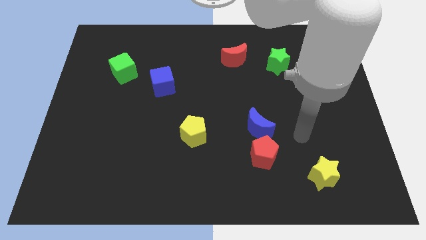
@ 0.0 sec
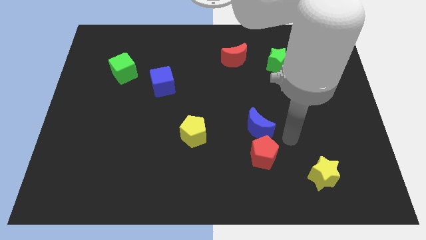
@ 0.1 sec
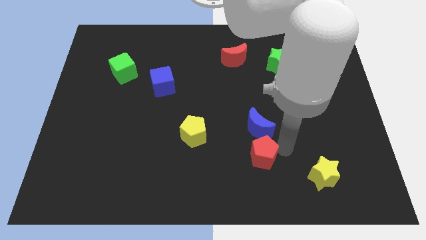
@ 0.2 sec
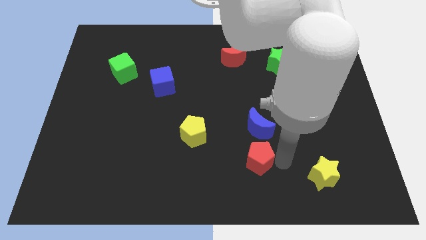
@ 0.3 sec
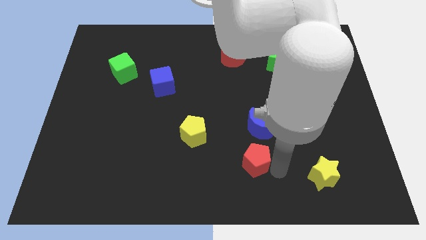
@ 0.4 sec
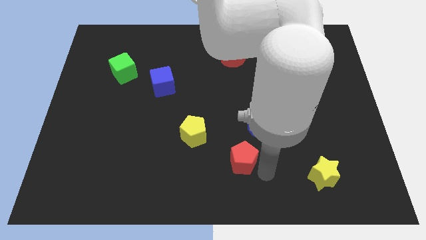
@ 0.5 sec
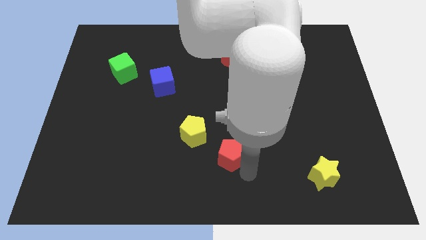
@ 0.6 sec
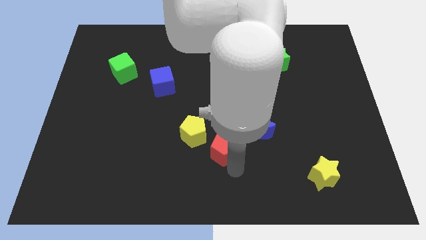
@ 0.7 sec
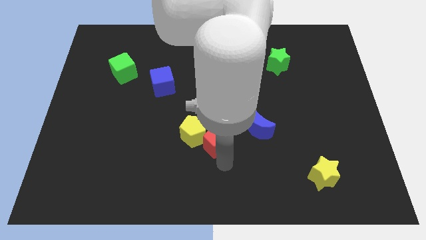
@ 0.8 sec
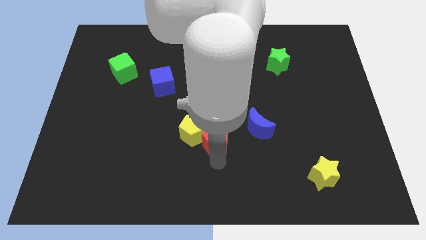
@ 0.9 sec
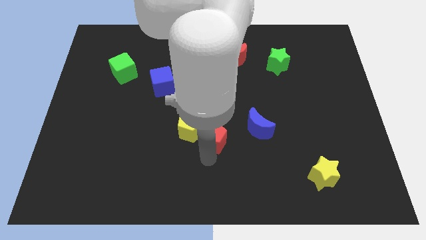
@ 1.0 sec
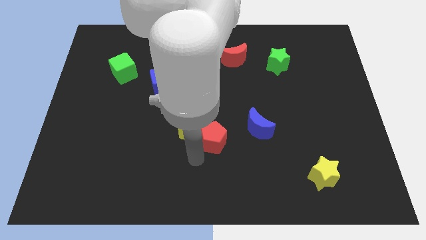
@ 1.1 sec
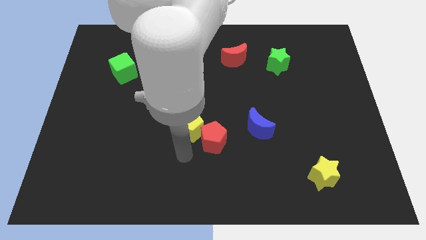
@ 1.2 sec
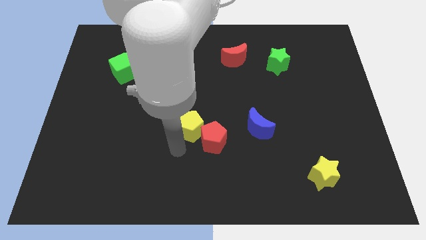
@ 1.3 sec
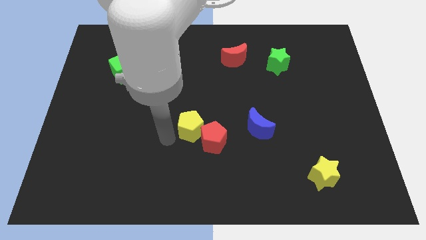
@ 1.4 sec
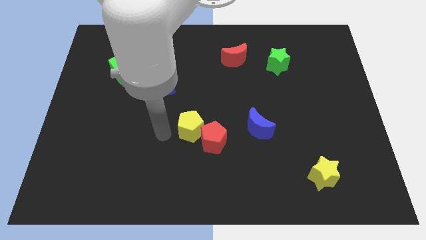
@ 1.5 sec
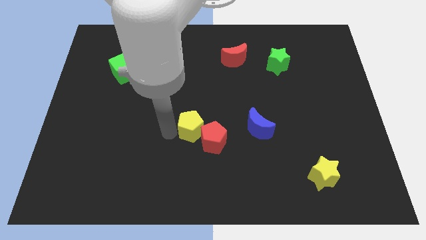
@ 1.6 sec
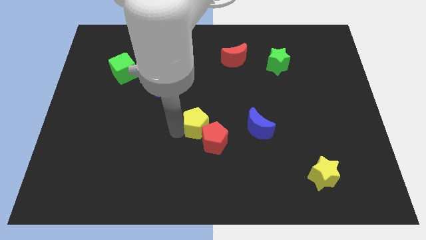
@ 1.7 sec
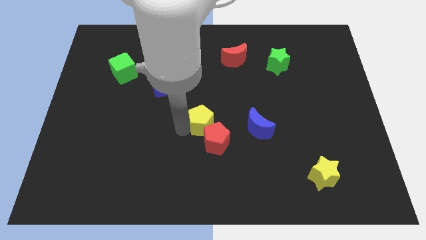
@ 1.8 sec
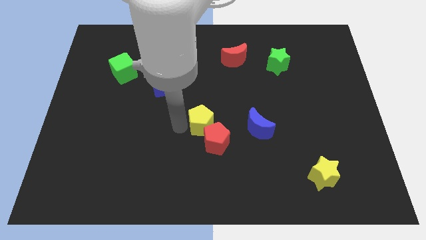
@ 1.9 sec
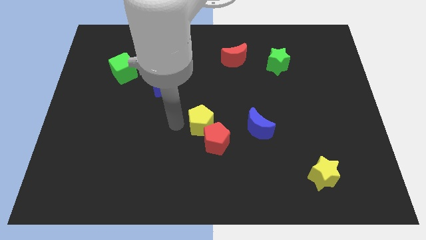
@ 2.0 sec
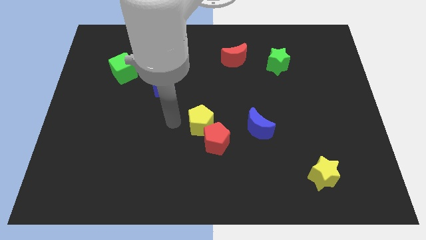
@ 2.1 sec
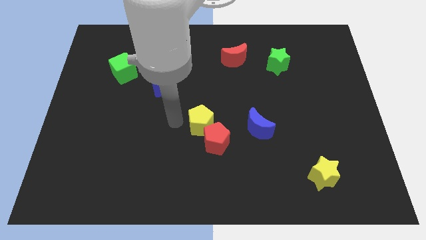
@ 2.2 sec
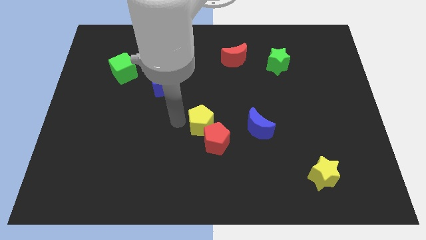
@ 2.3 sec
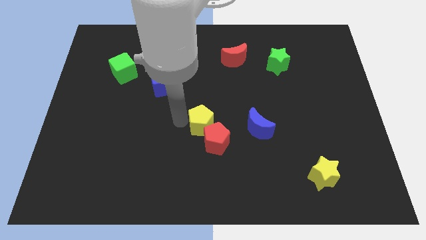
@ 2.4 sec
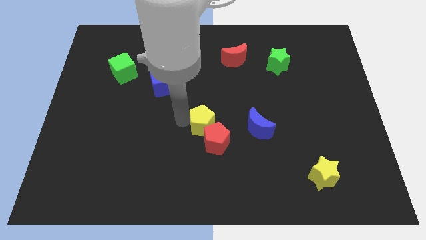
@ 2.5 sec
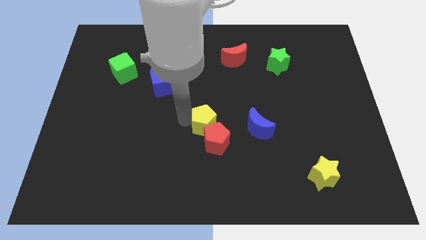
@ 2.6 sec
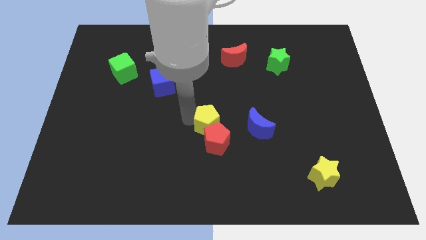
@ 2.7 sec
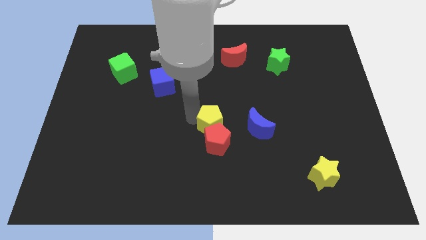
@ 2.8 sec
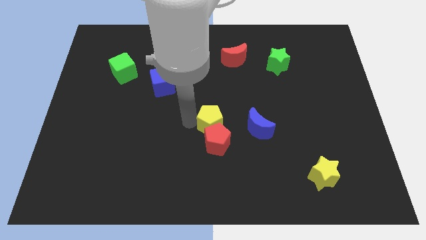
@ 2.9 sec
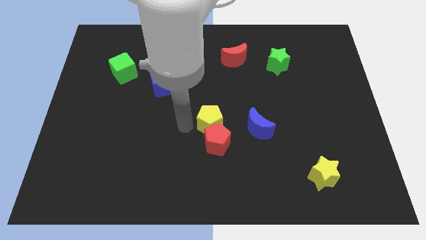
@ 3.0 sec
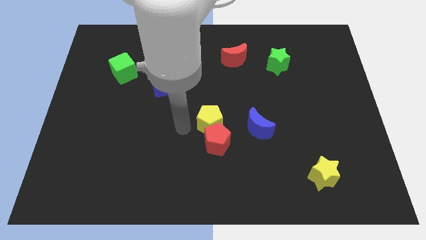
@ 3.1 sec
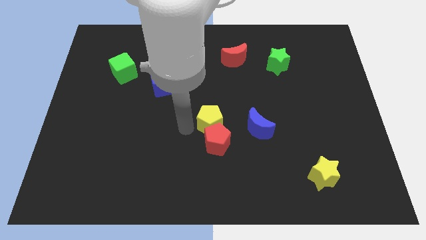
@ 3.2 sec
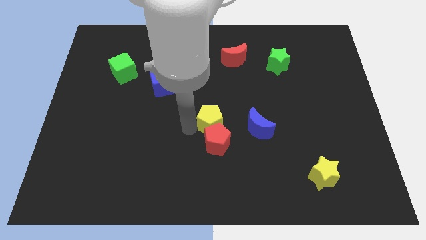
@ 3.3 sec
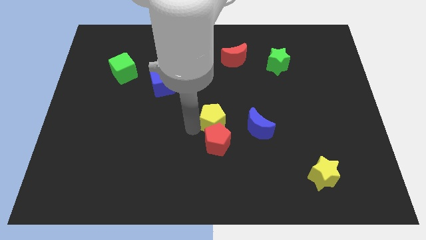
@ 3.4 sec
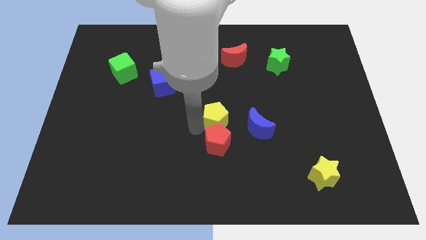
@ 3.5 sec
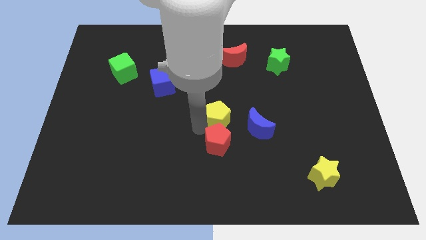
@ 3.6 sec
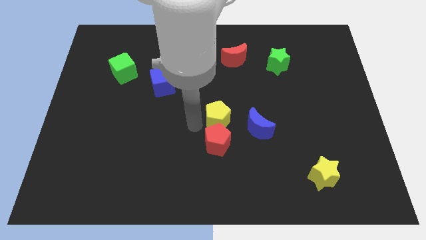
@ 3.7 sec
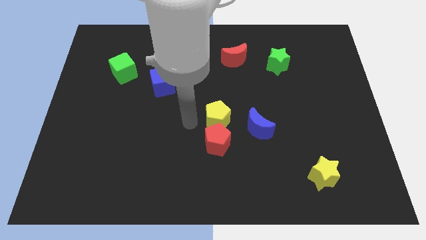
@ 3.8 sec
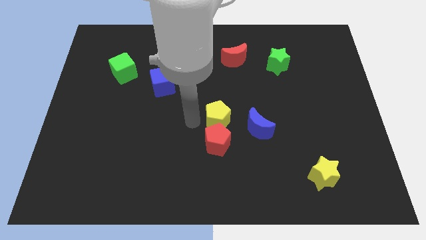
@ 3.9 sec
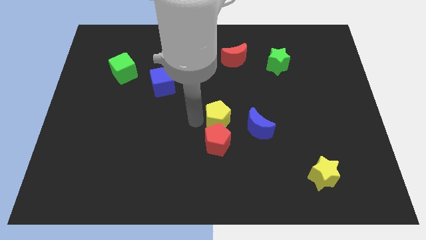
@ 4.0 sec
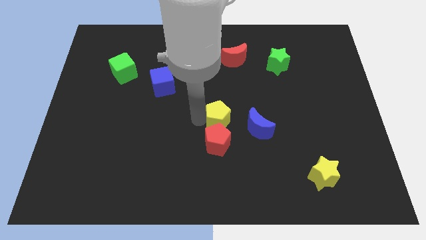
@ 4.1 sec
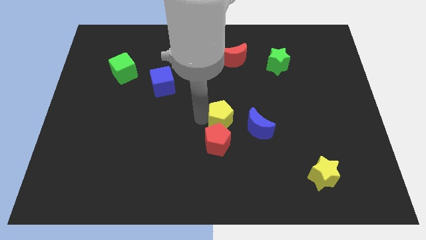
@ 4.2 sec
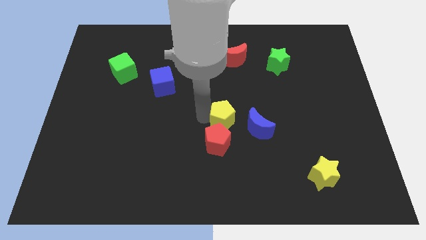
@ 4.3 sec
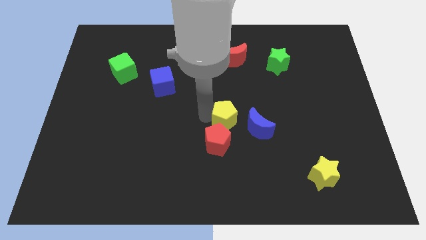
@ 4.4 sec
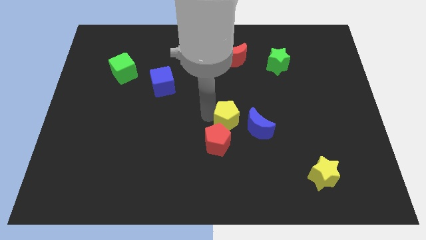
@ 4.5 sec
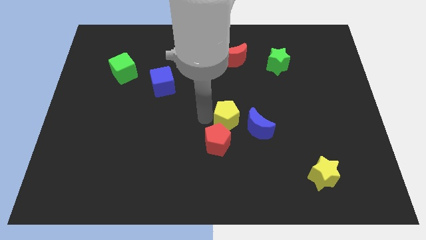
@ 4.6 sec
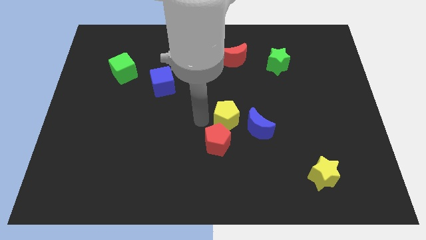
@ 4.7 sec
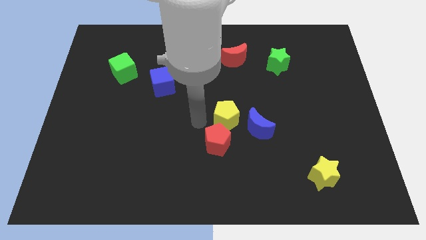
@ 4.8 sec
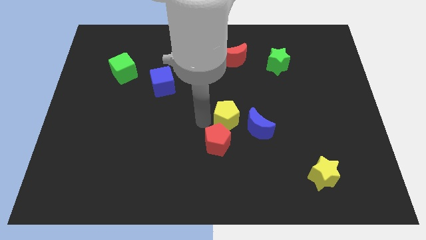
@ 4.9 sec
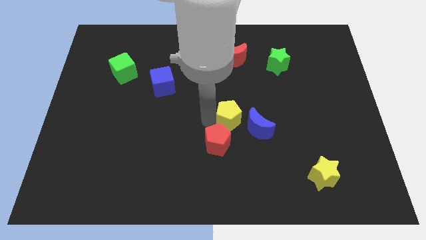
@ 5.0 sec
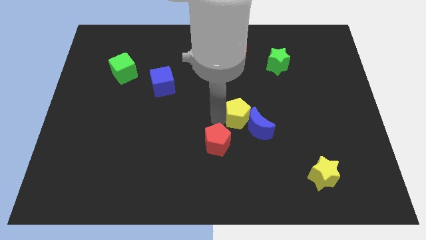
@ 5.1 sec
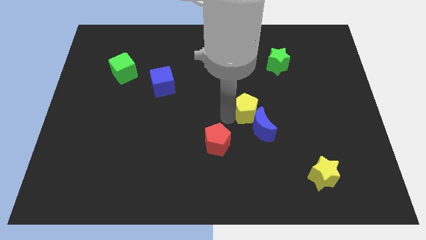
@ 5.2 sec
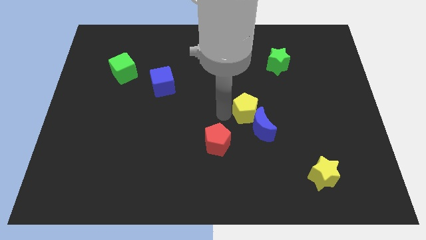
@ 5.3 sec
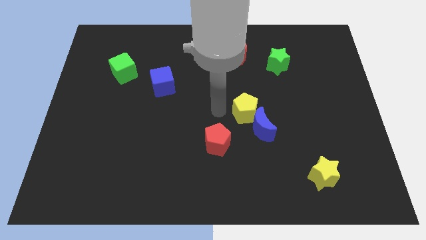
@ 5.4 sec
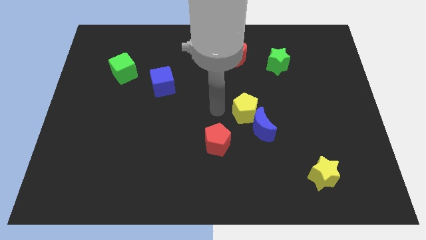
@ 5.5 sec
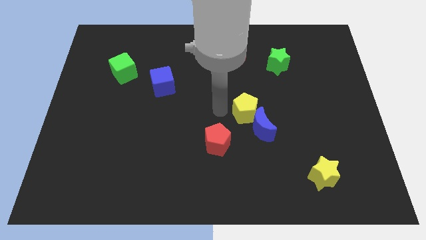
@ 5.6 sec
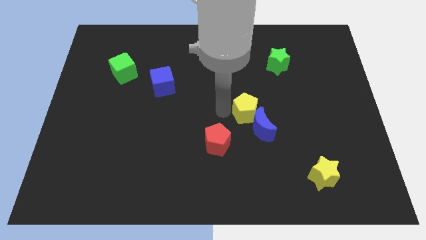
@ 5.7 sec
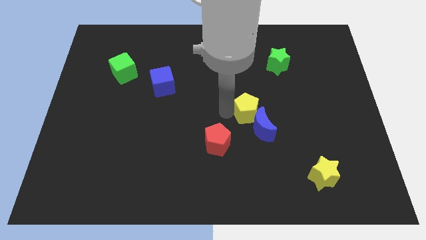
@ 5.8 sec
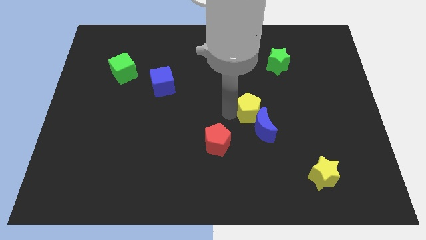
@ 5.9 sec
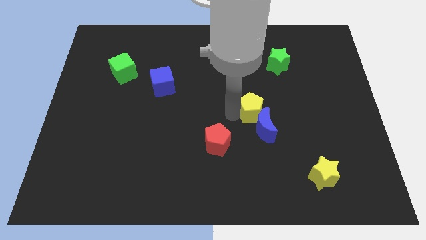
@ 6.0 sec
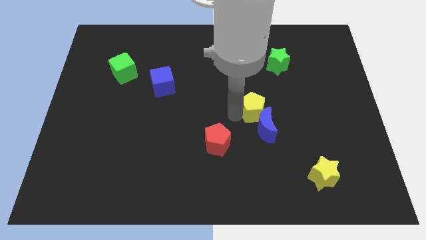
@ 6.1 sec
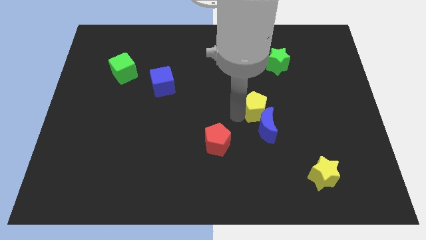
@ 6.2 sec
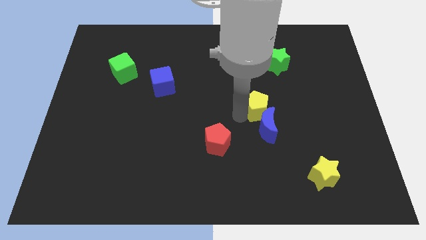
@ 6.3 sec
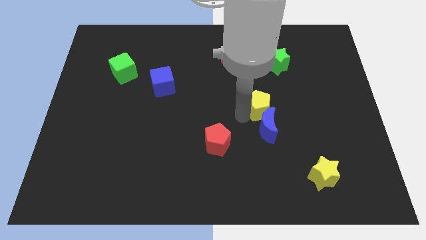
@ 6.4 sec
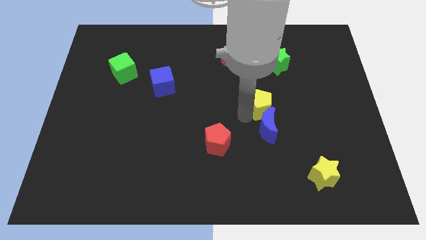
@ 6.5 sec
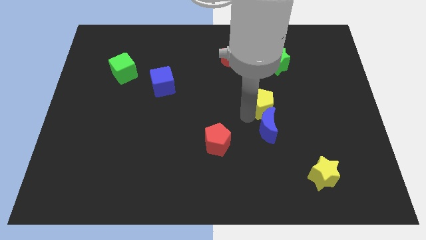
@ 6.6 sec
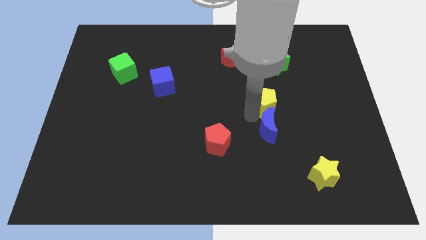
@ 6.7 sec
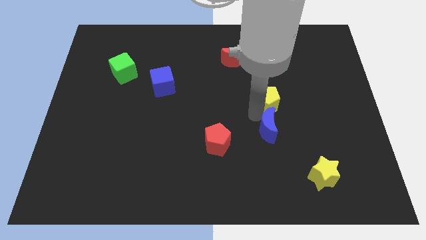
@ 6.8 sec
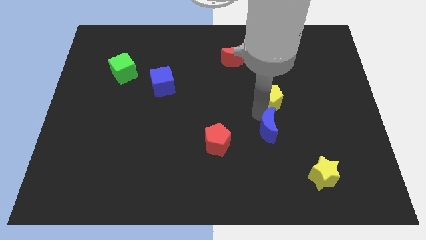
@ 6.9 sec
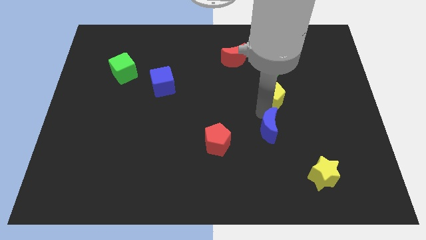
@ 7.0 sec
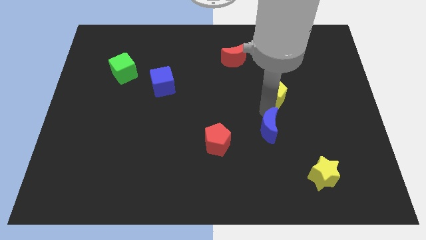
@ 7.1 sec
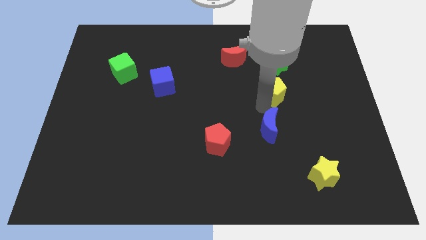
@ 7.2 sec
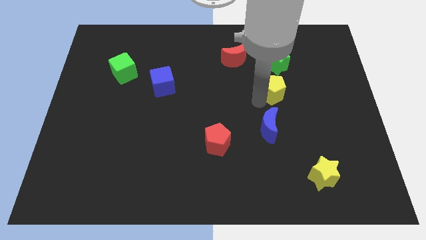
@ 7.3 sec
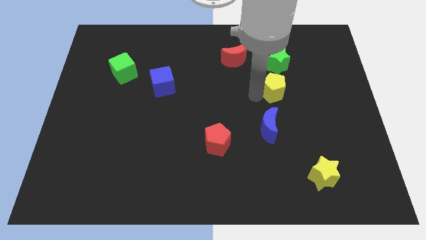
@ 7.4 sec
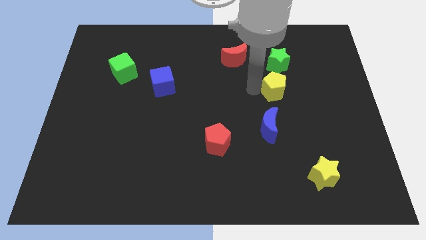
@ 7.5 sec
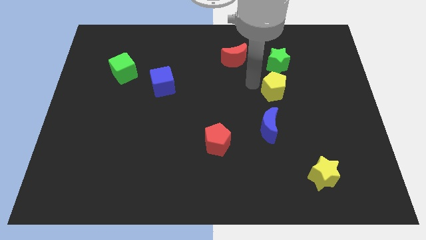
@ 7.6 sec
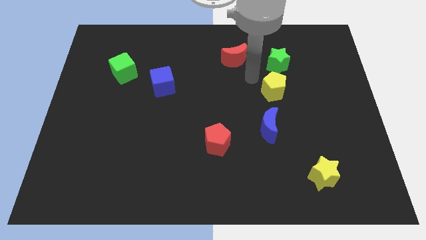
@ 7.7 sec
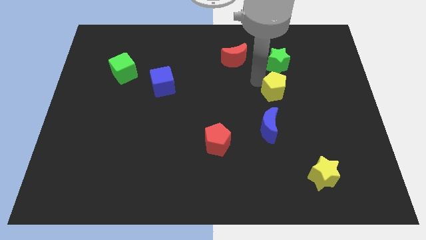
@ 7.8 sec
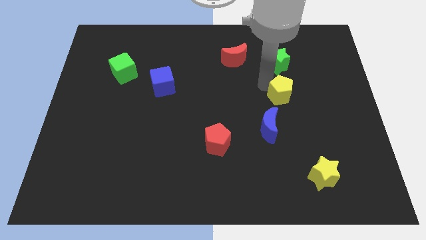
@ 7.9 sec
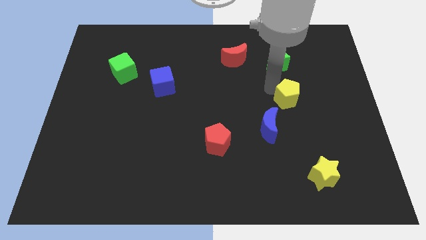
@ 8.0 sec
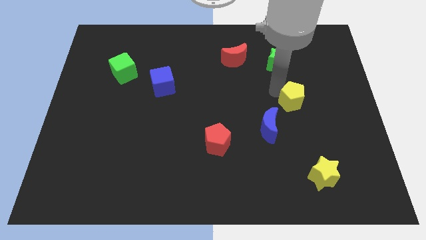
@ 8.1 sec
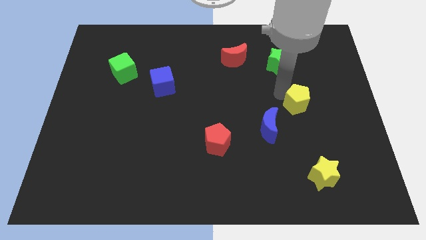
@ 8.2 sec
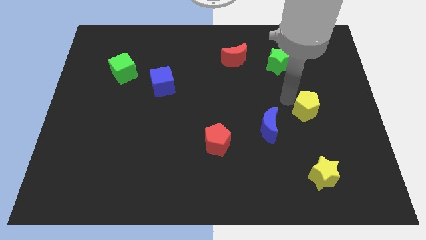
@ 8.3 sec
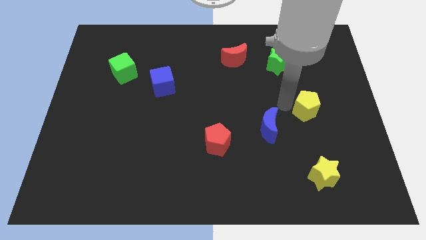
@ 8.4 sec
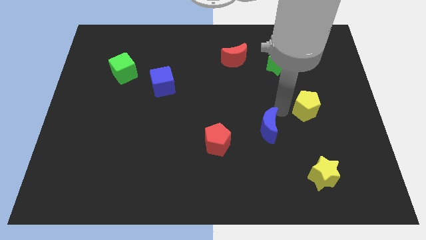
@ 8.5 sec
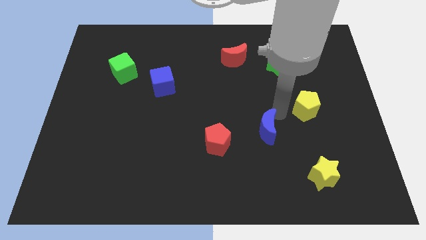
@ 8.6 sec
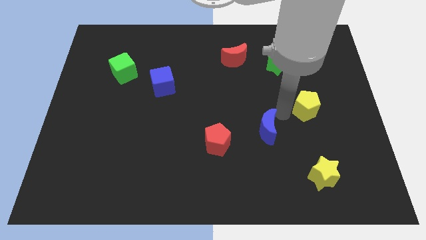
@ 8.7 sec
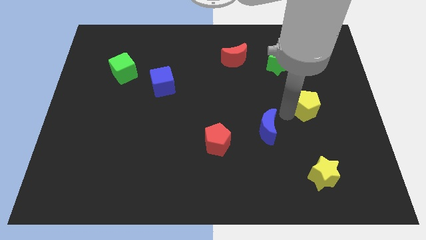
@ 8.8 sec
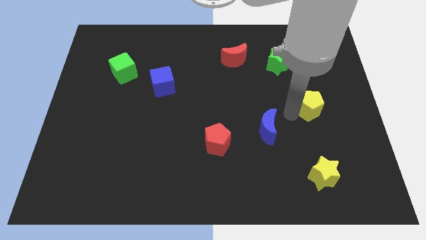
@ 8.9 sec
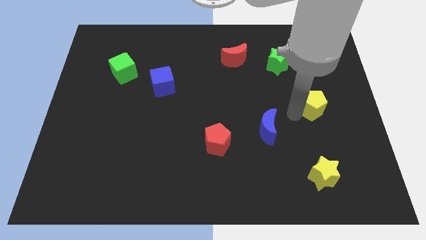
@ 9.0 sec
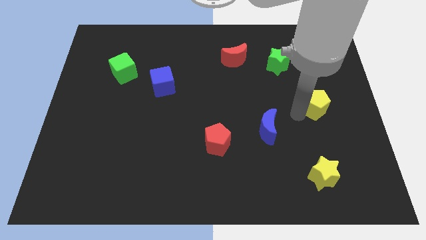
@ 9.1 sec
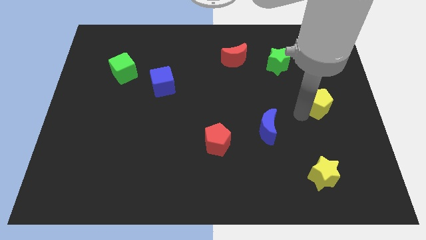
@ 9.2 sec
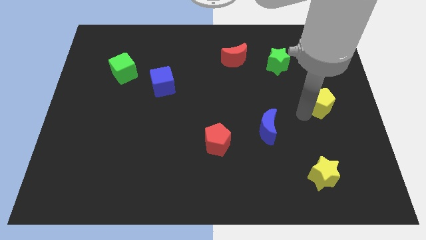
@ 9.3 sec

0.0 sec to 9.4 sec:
push the yellow pentagon to the right side of the board
